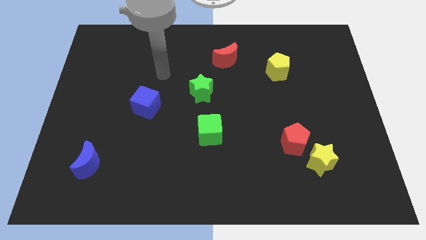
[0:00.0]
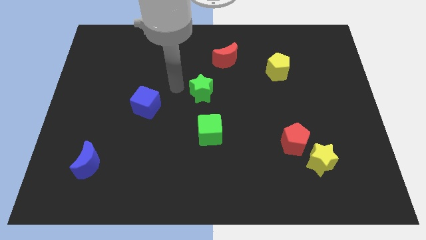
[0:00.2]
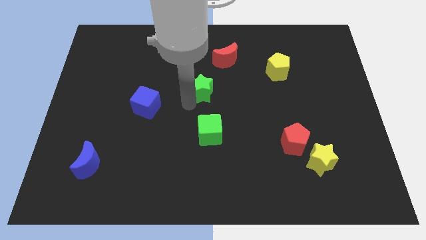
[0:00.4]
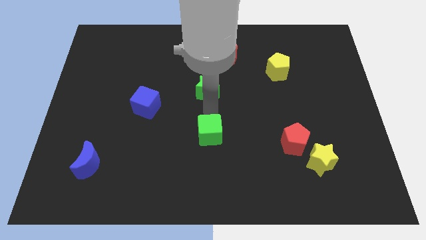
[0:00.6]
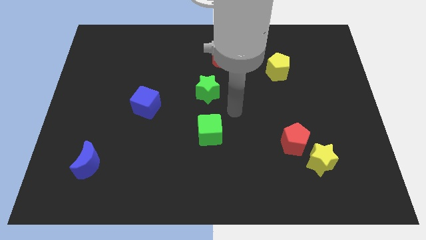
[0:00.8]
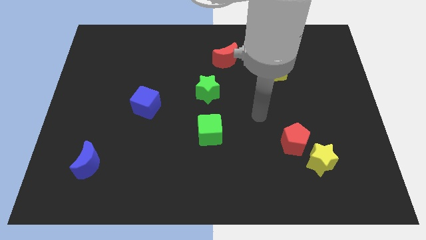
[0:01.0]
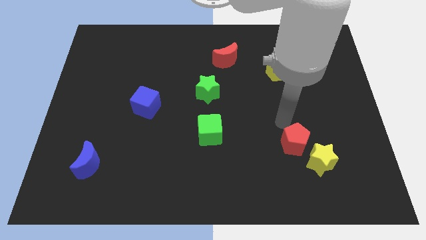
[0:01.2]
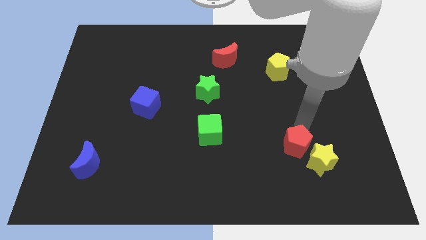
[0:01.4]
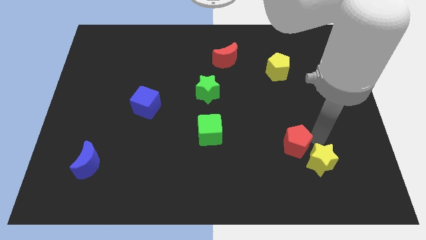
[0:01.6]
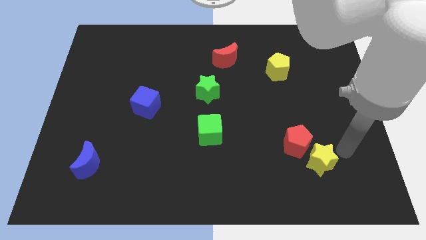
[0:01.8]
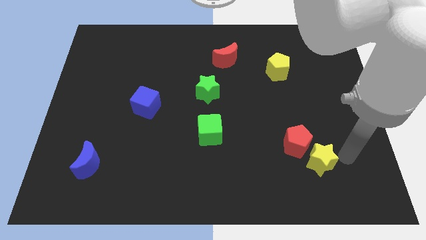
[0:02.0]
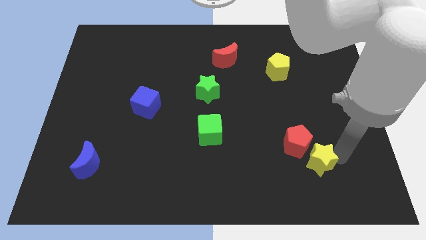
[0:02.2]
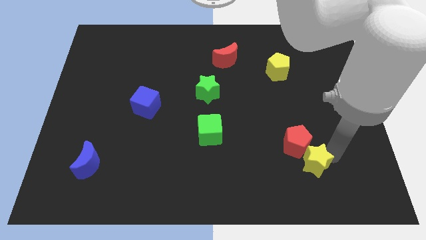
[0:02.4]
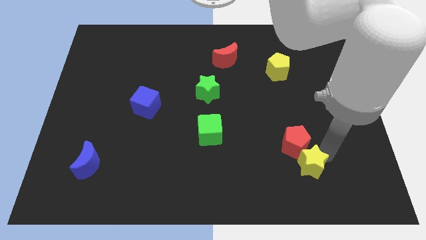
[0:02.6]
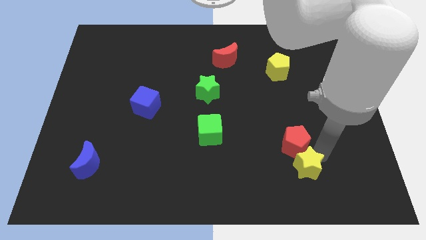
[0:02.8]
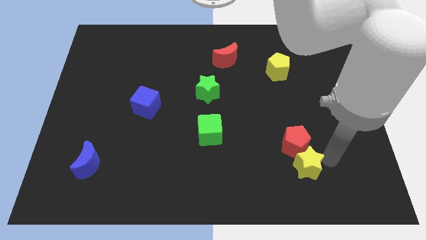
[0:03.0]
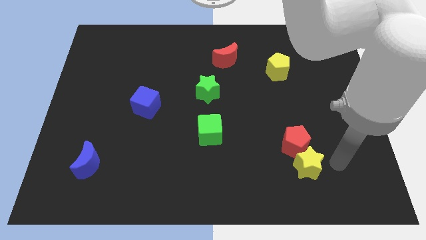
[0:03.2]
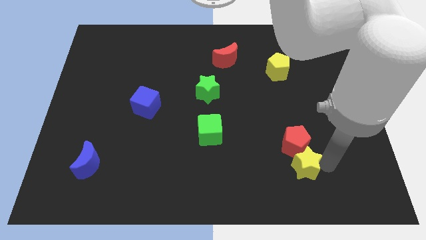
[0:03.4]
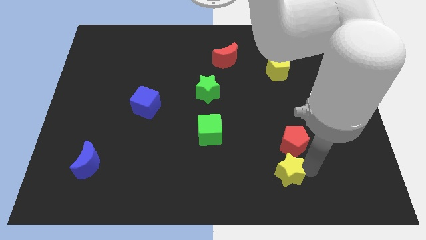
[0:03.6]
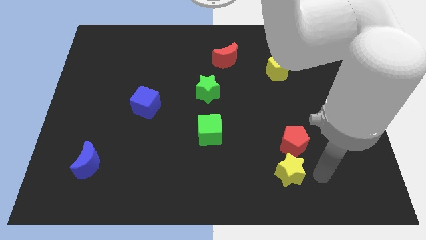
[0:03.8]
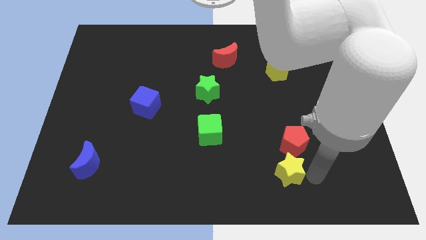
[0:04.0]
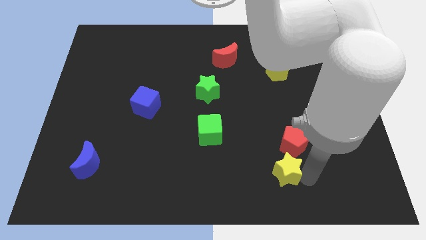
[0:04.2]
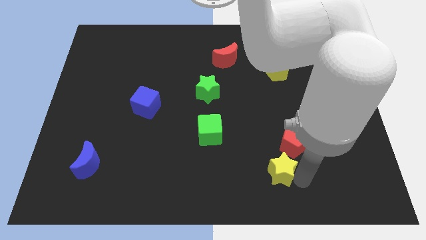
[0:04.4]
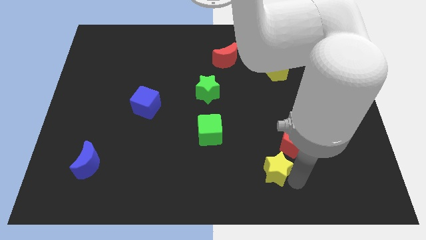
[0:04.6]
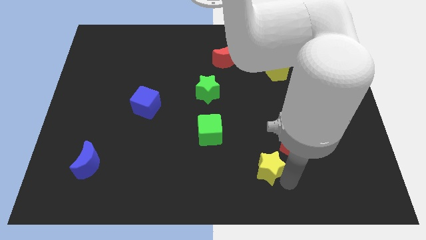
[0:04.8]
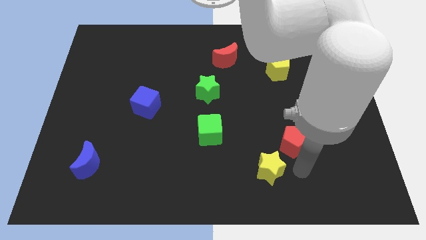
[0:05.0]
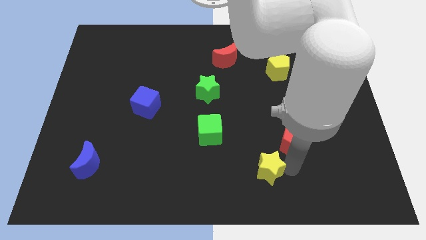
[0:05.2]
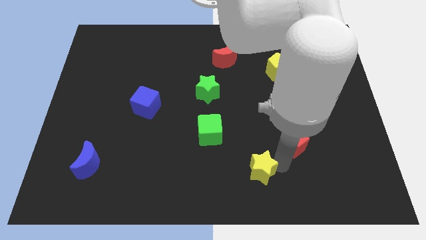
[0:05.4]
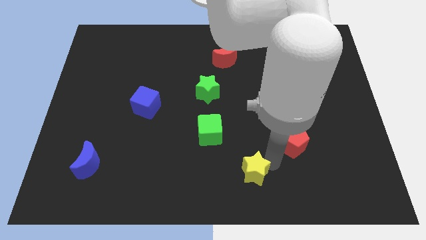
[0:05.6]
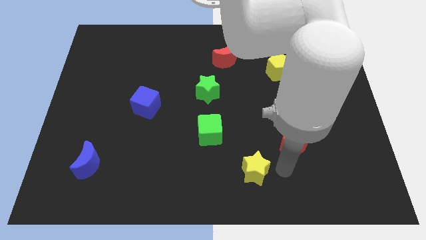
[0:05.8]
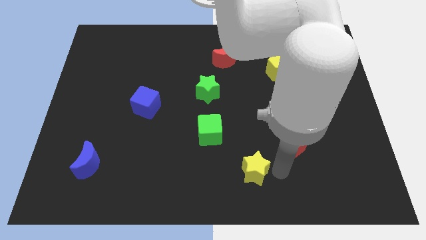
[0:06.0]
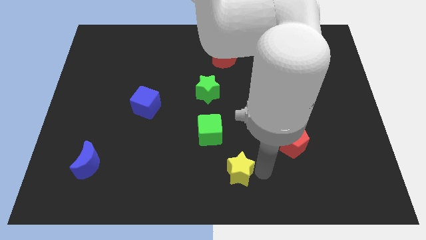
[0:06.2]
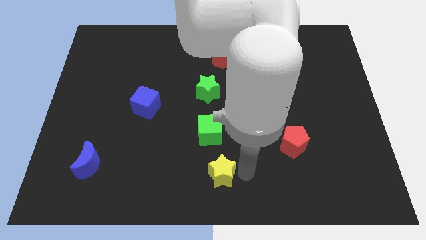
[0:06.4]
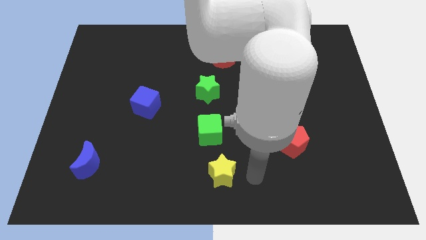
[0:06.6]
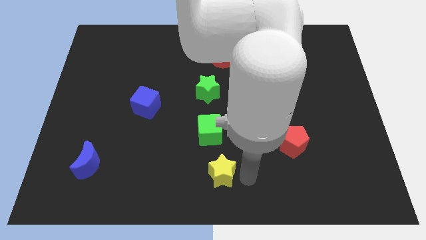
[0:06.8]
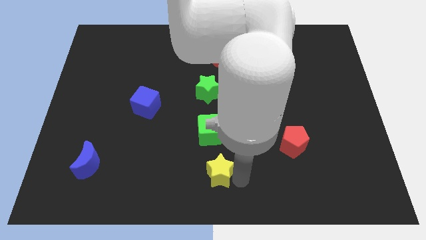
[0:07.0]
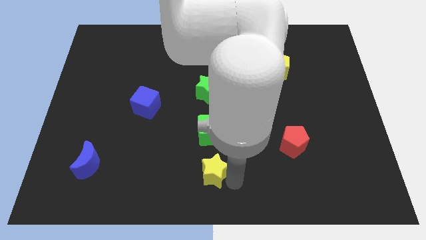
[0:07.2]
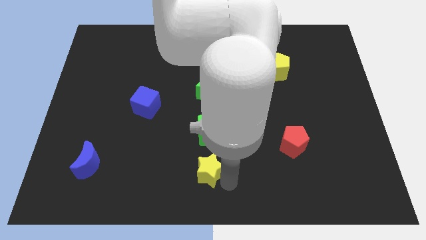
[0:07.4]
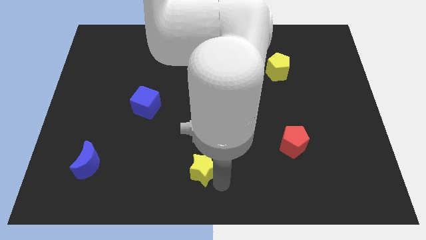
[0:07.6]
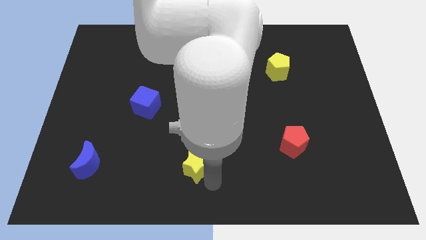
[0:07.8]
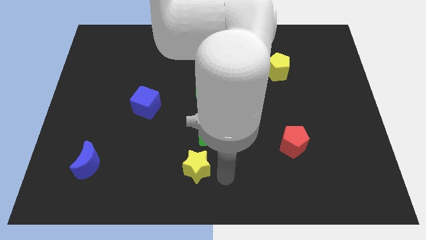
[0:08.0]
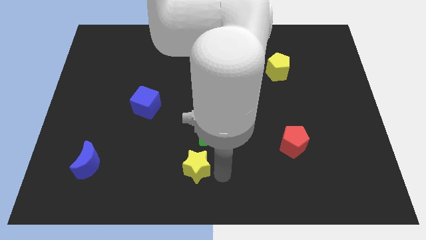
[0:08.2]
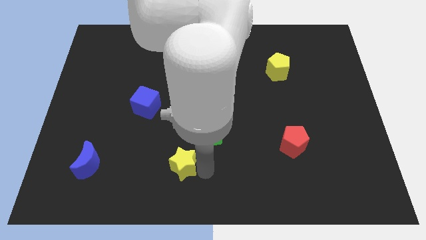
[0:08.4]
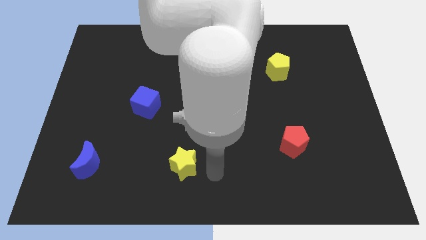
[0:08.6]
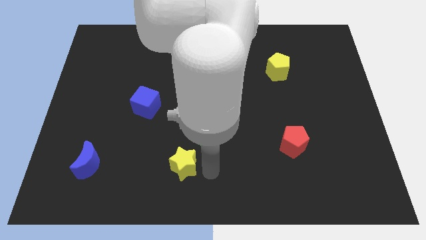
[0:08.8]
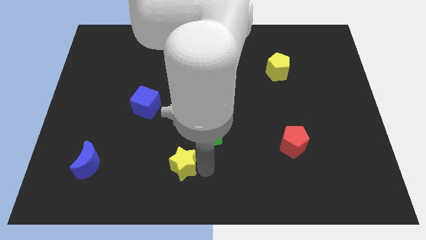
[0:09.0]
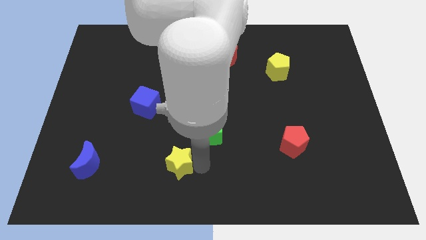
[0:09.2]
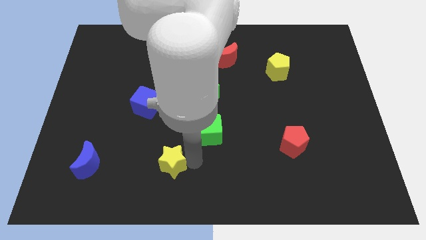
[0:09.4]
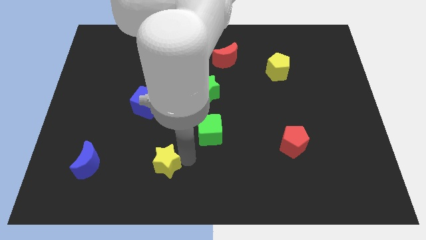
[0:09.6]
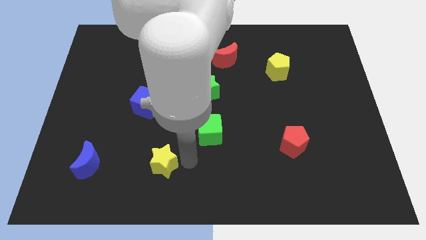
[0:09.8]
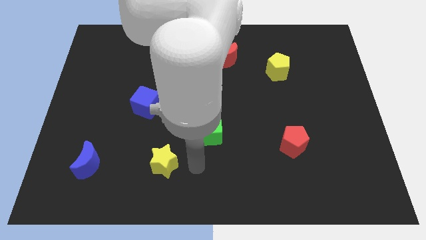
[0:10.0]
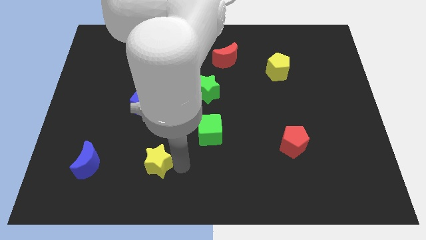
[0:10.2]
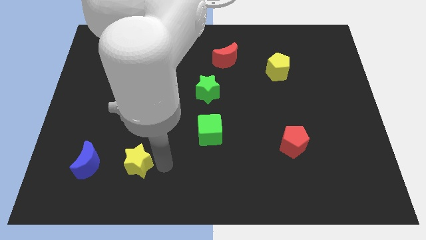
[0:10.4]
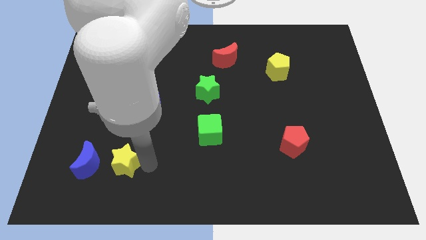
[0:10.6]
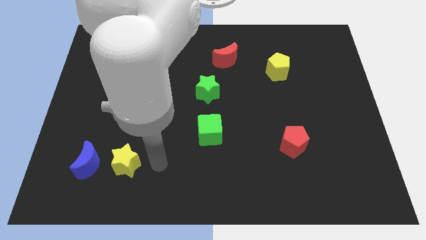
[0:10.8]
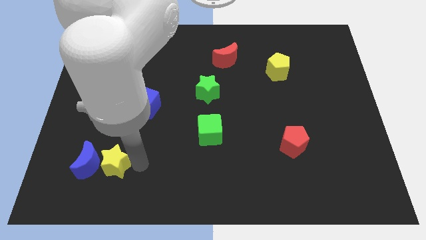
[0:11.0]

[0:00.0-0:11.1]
put the yellow star close to the blue moon

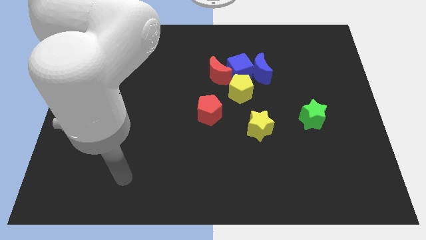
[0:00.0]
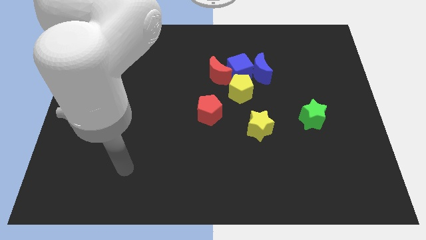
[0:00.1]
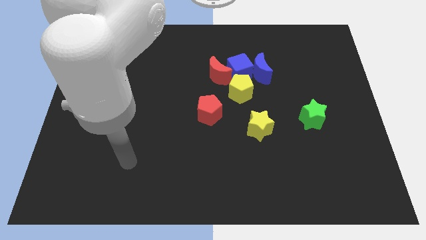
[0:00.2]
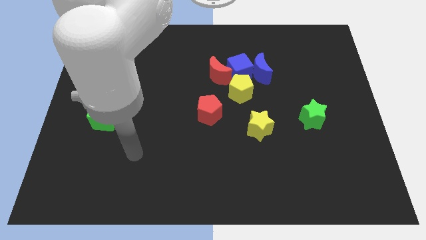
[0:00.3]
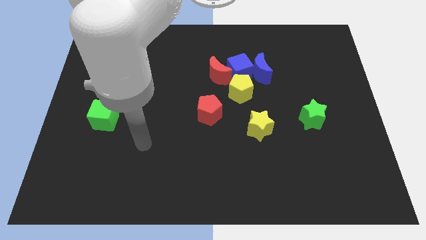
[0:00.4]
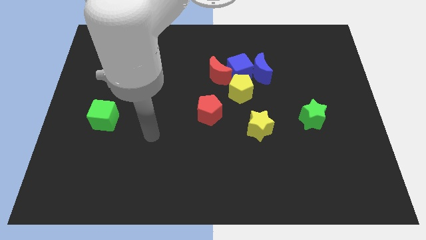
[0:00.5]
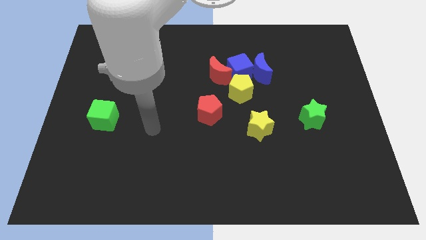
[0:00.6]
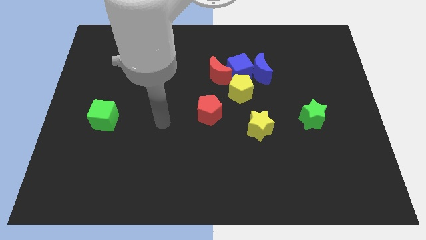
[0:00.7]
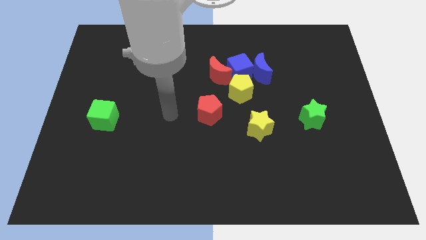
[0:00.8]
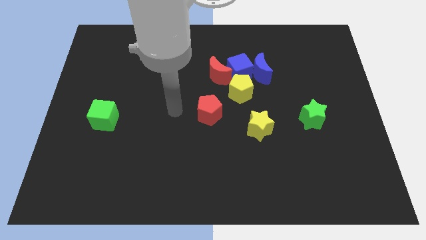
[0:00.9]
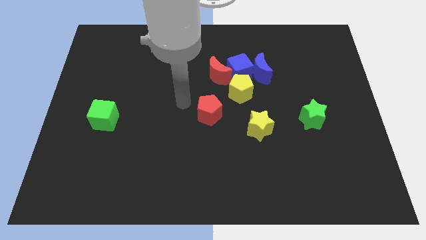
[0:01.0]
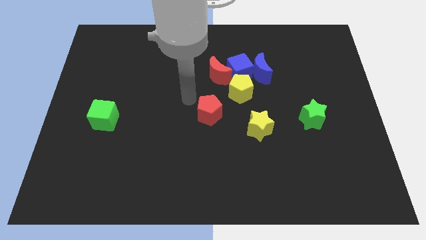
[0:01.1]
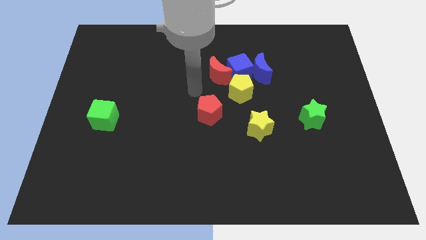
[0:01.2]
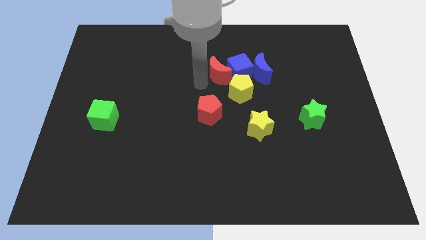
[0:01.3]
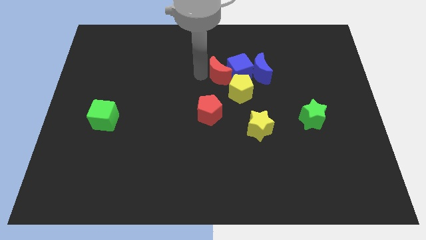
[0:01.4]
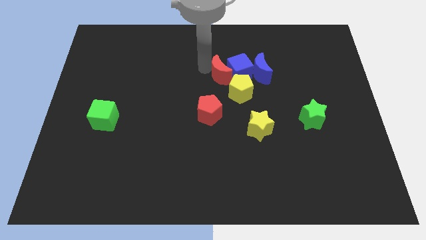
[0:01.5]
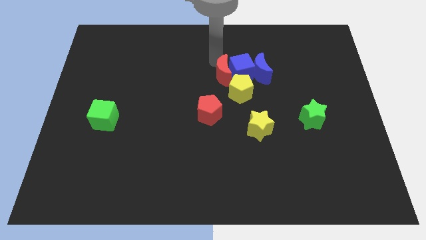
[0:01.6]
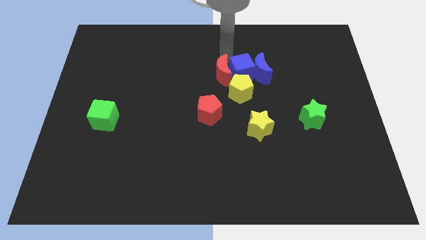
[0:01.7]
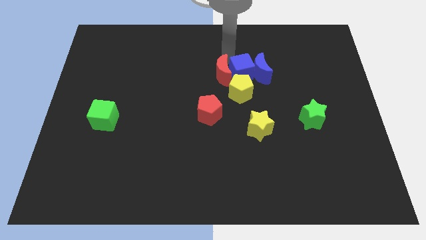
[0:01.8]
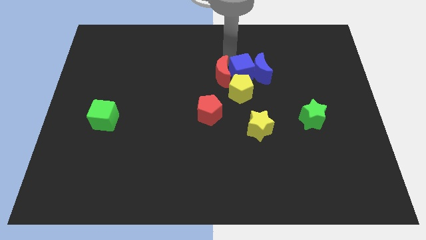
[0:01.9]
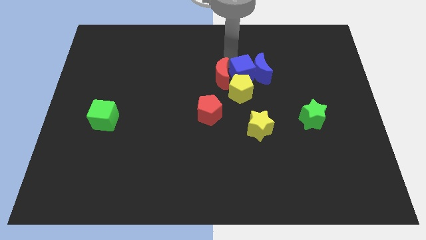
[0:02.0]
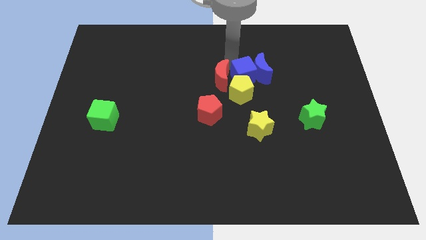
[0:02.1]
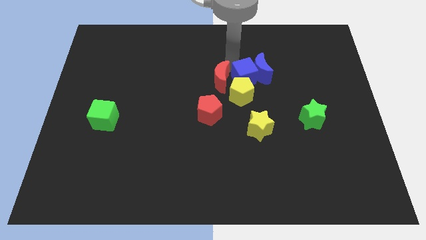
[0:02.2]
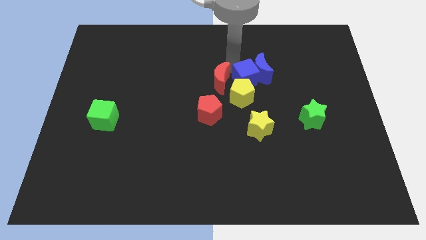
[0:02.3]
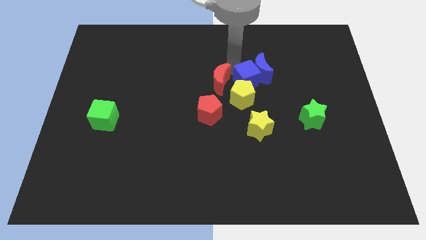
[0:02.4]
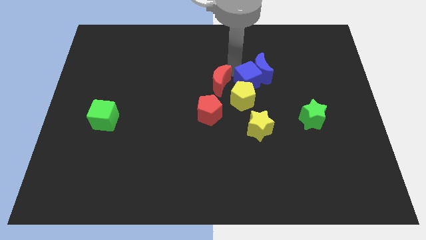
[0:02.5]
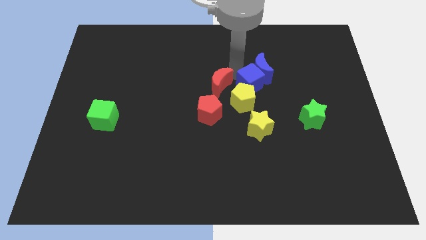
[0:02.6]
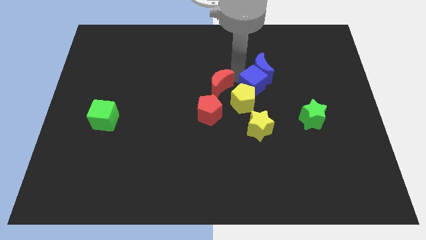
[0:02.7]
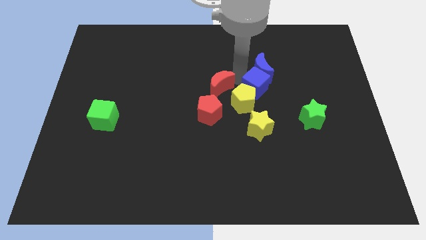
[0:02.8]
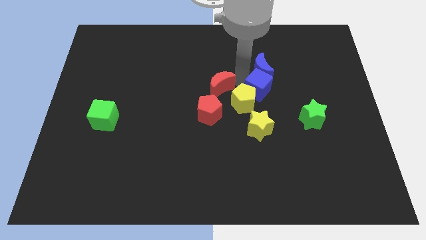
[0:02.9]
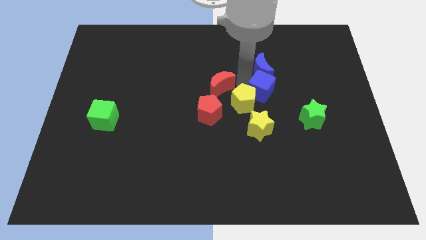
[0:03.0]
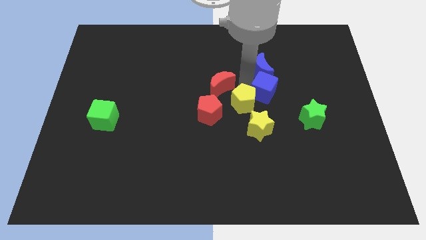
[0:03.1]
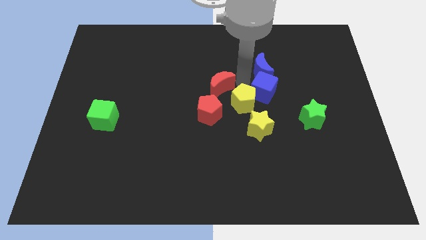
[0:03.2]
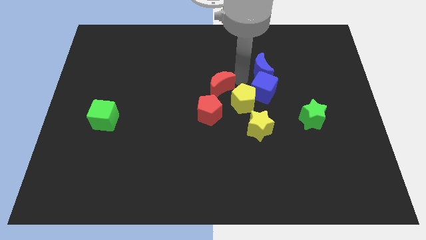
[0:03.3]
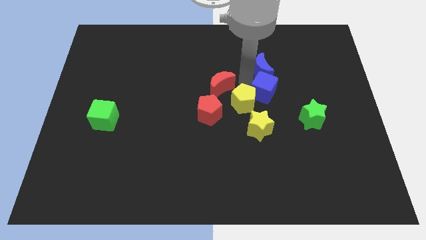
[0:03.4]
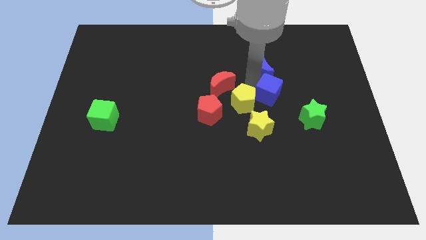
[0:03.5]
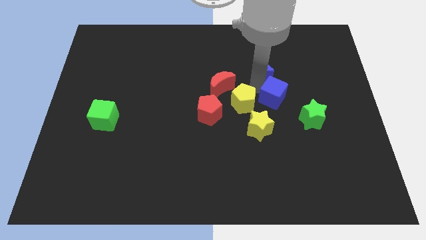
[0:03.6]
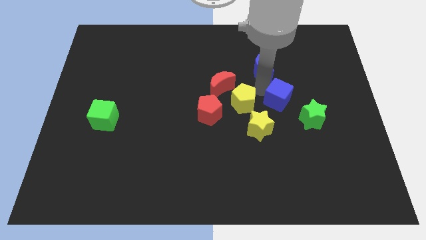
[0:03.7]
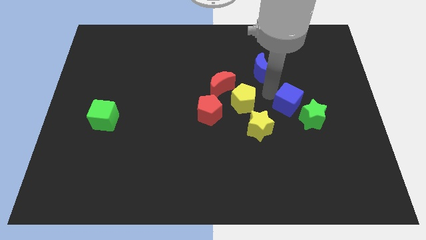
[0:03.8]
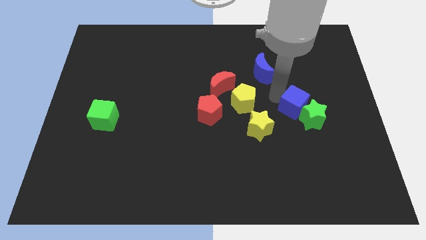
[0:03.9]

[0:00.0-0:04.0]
put the blue cube towards the green star
